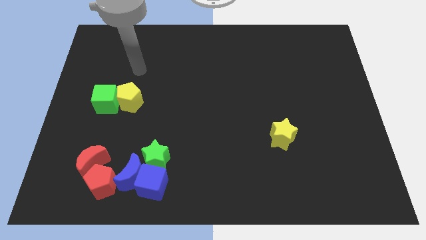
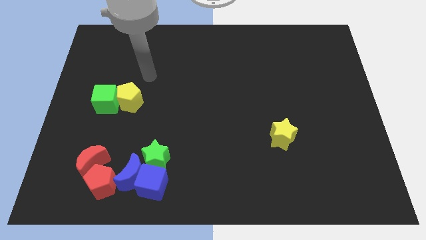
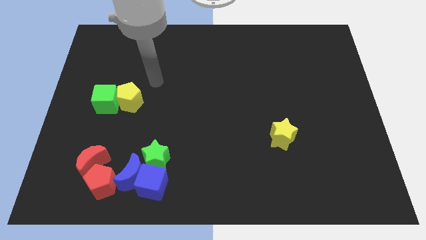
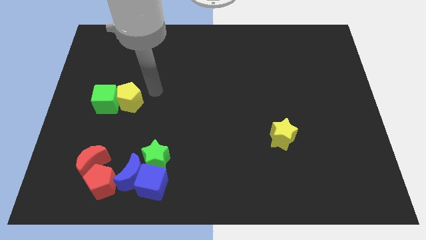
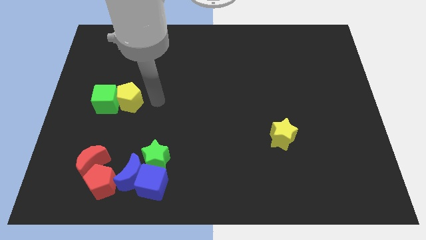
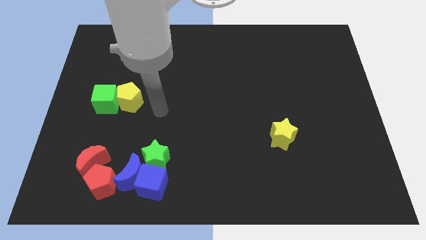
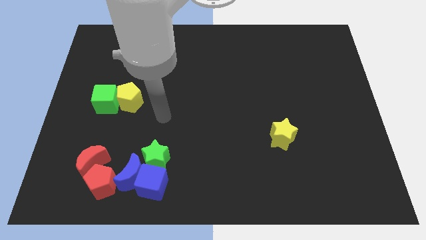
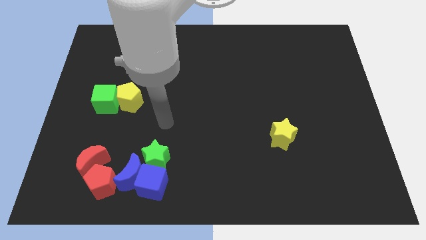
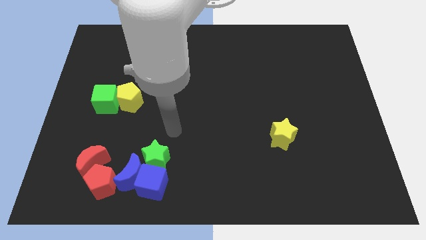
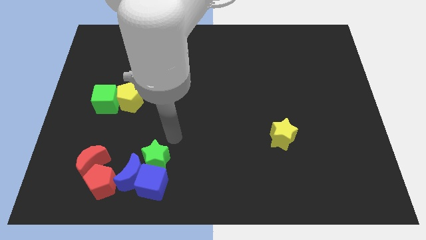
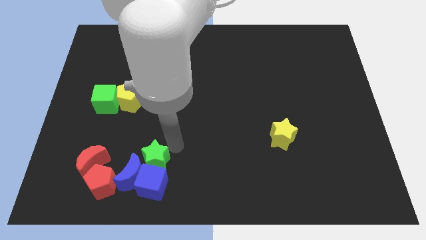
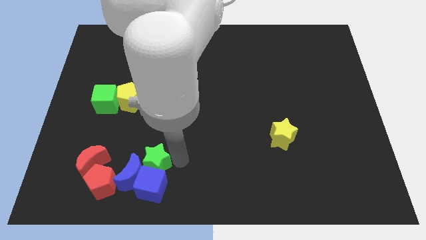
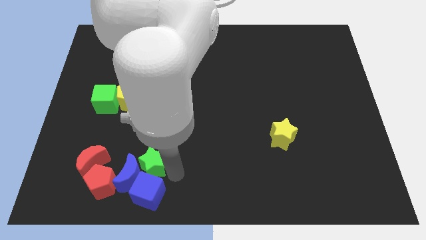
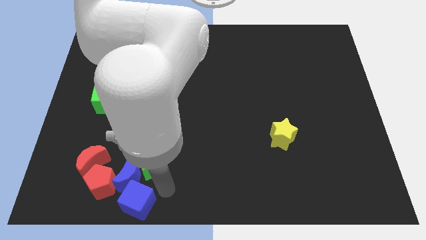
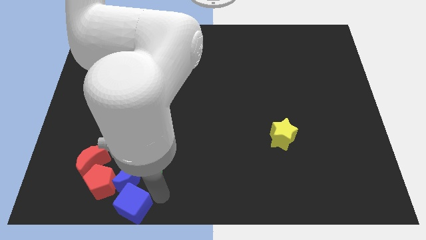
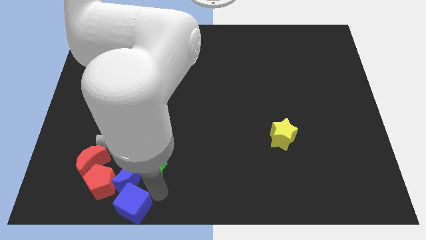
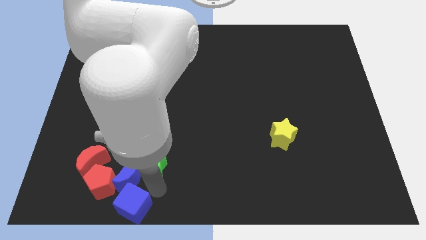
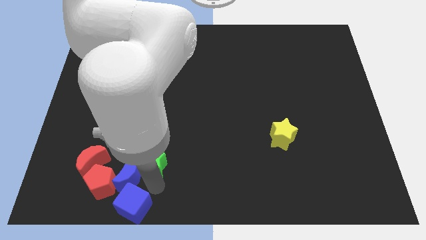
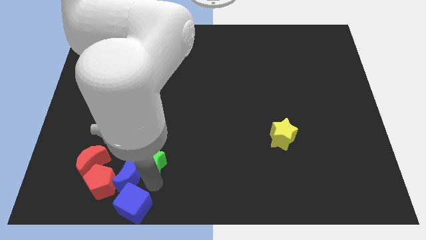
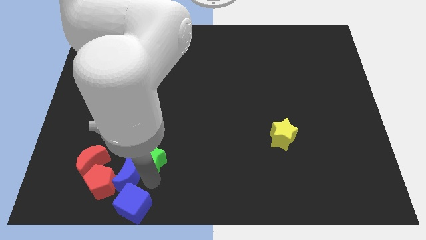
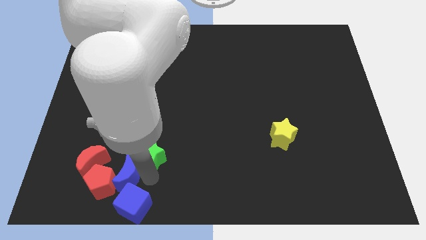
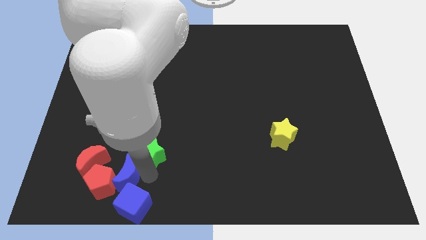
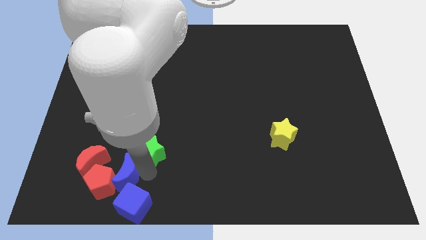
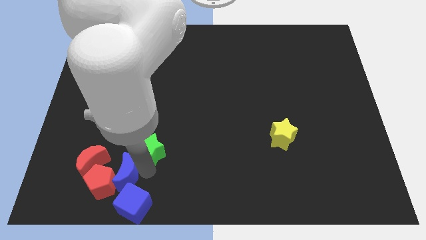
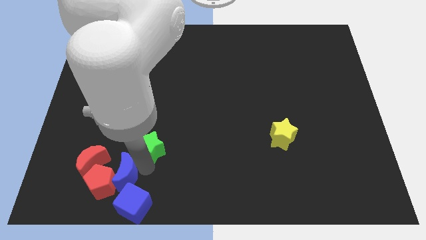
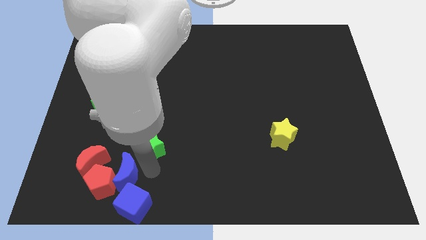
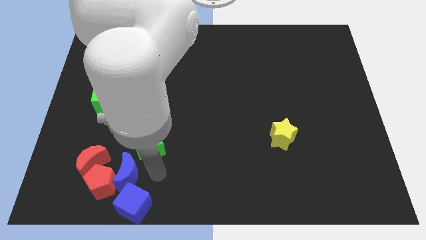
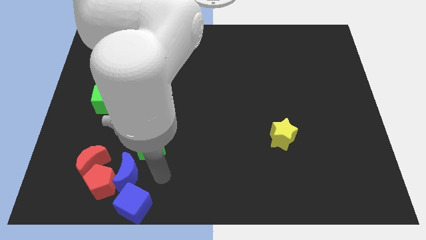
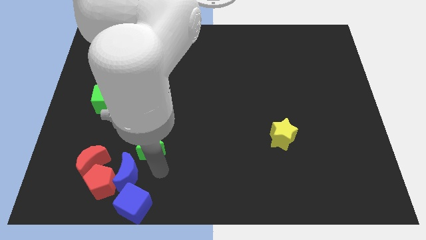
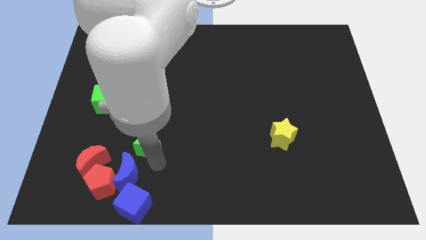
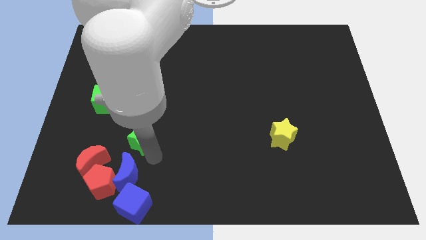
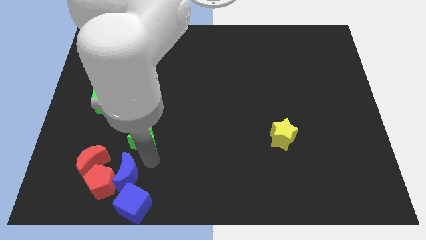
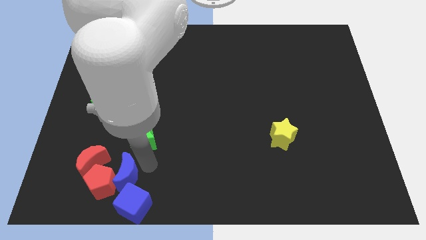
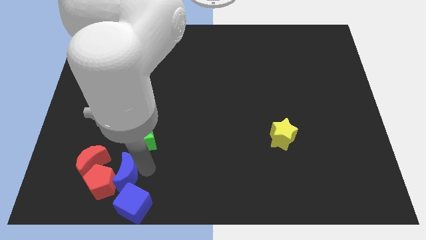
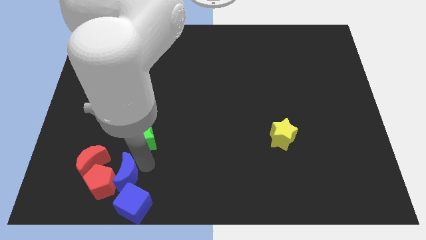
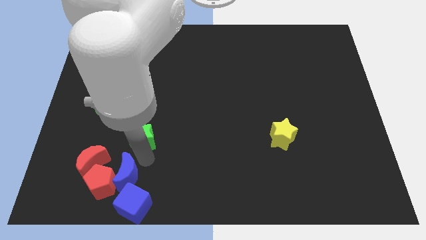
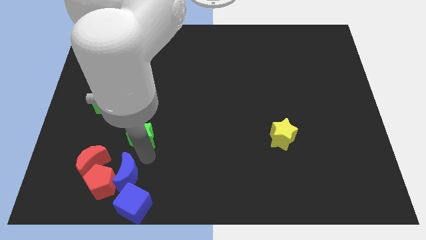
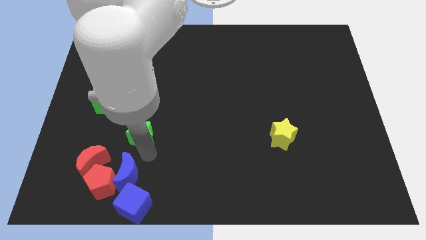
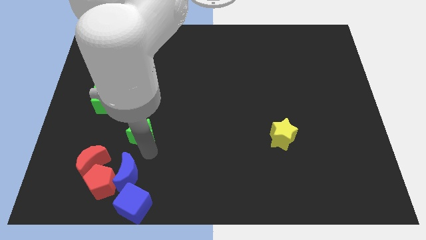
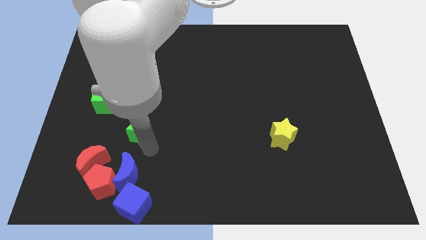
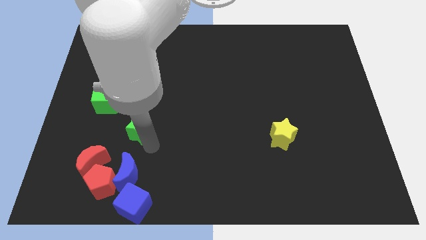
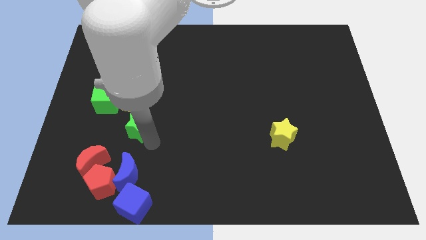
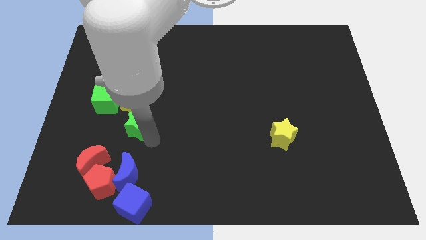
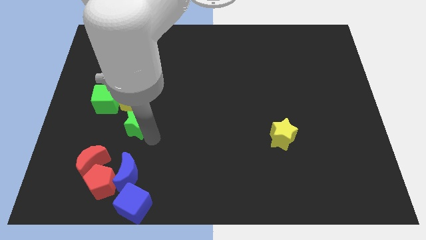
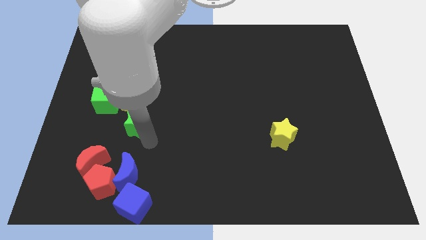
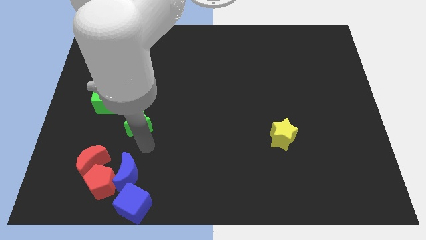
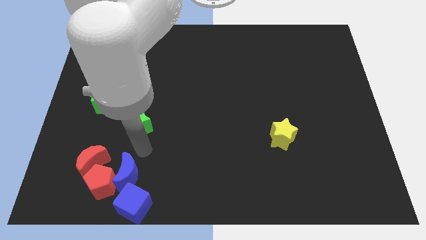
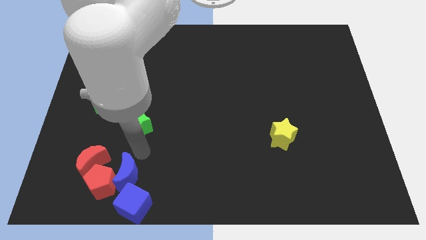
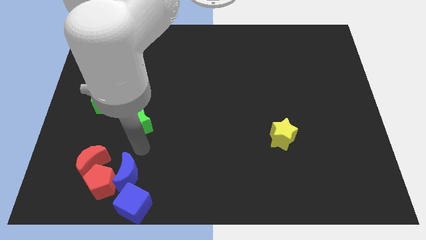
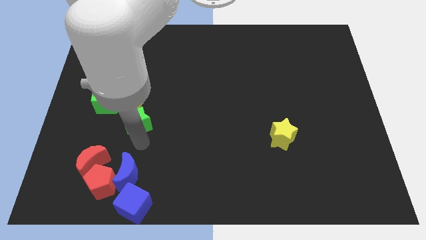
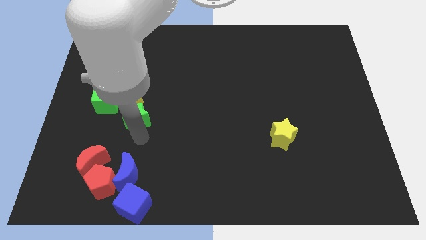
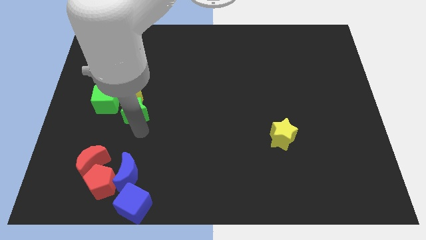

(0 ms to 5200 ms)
put the green star to the yellow pentagon

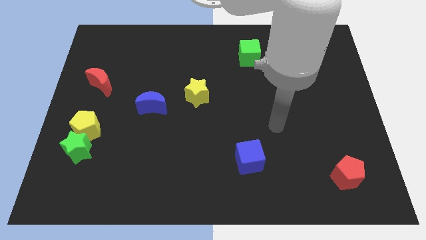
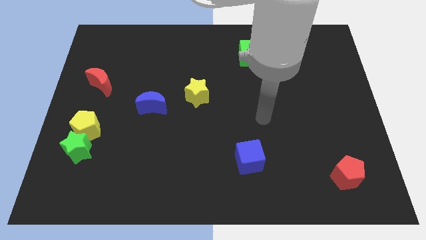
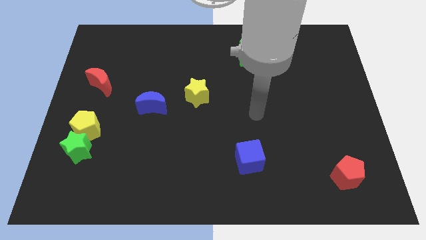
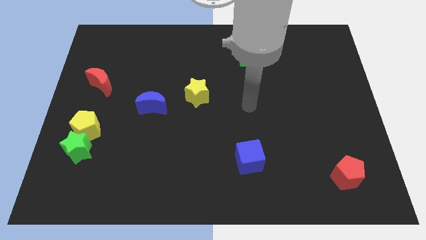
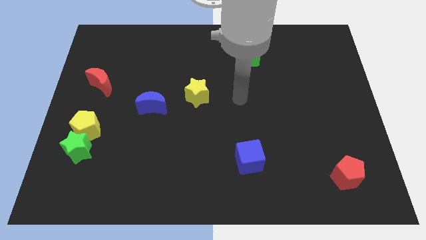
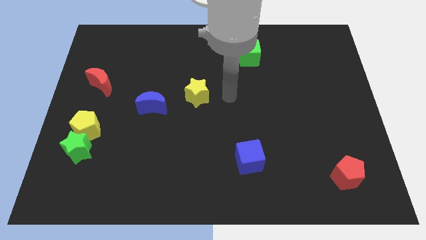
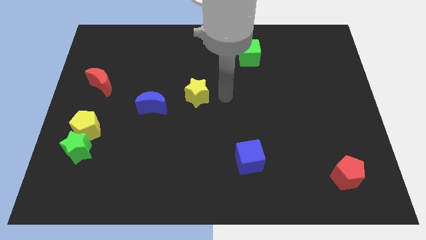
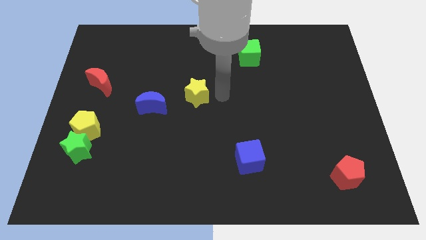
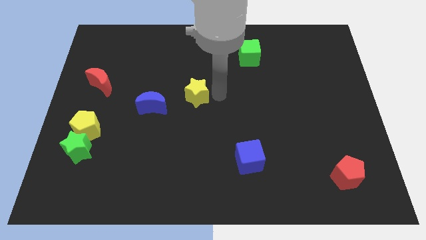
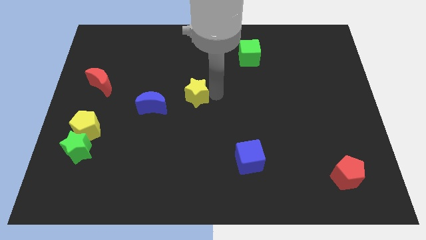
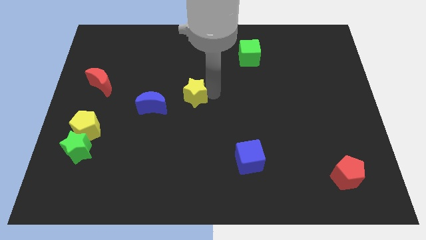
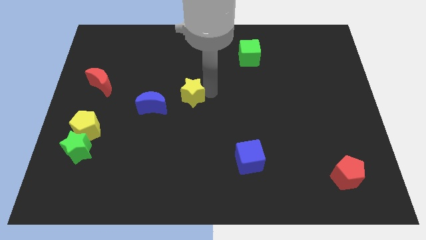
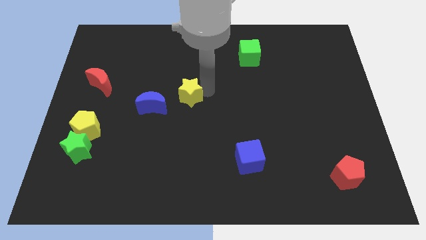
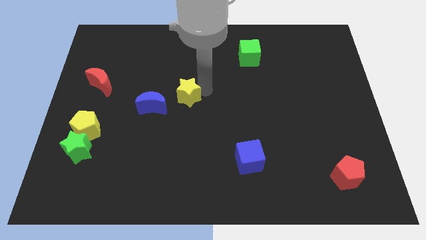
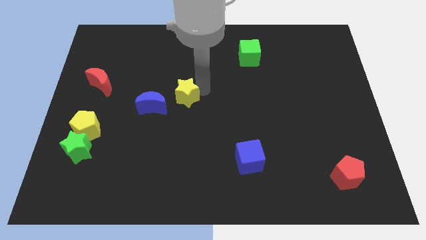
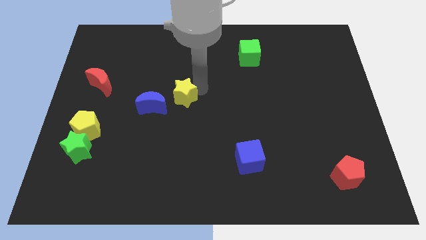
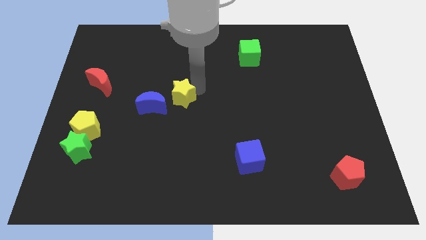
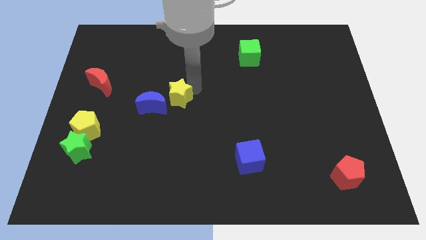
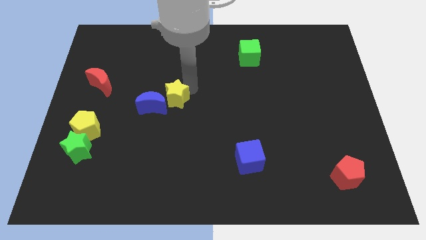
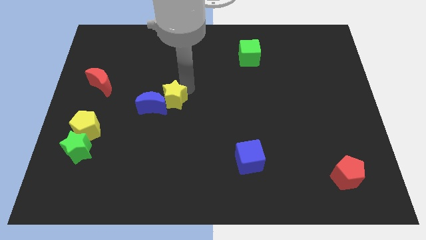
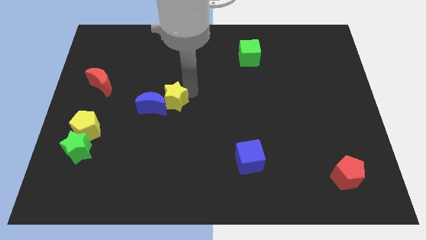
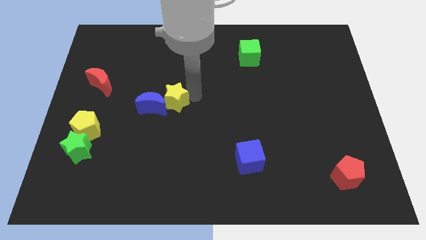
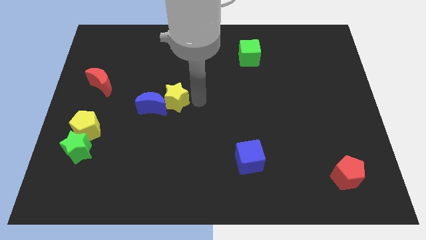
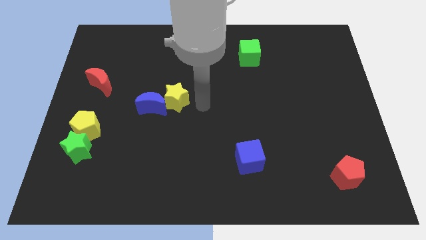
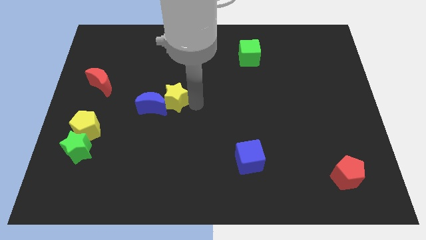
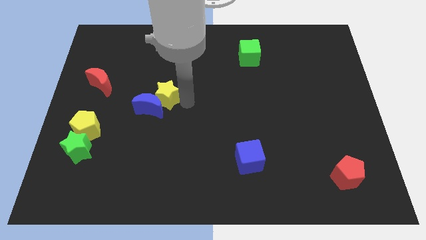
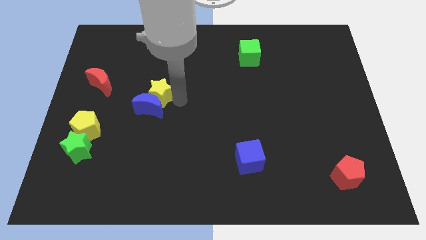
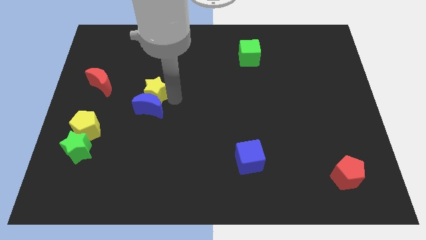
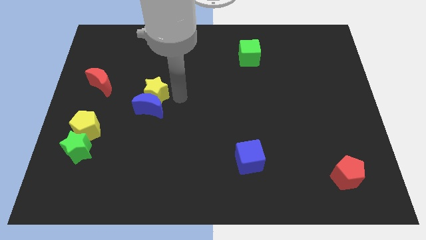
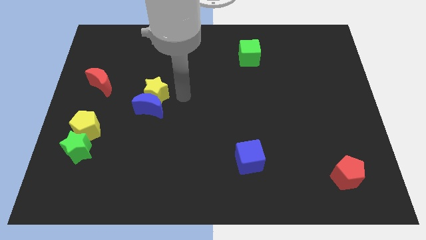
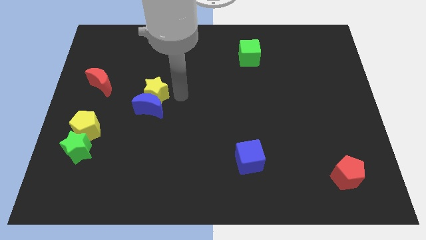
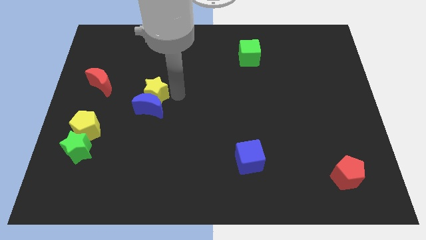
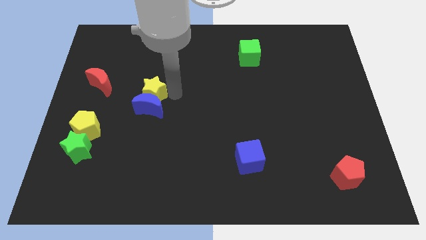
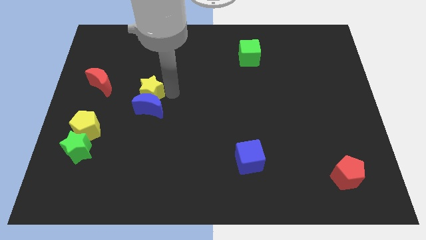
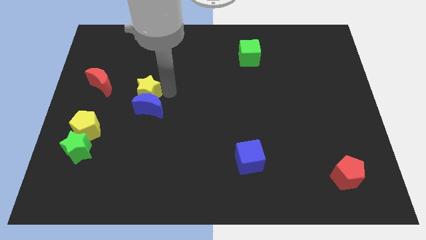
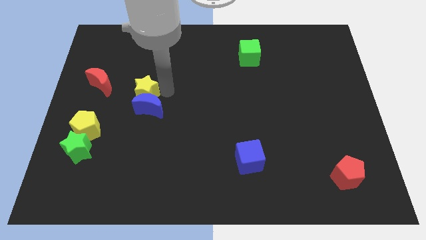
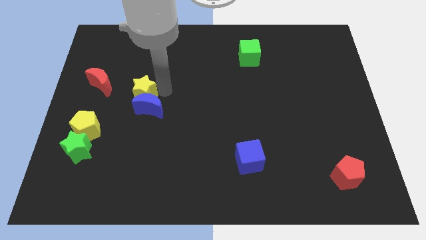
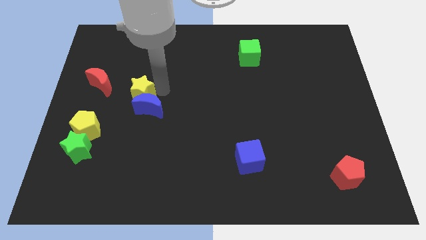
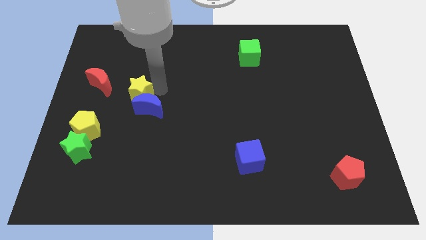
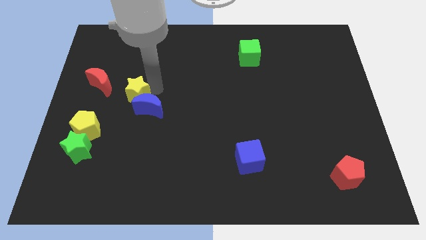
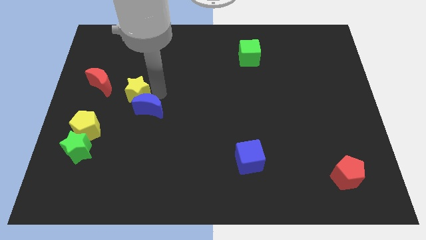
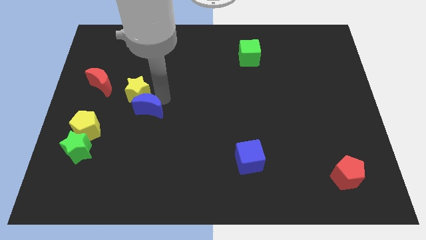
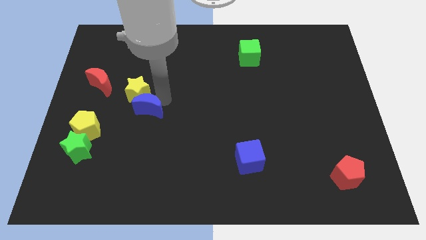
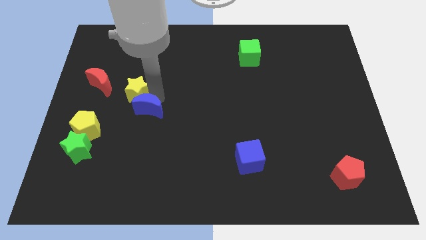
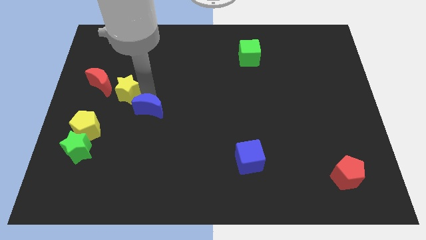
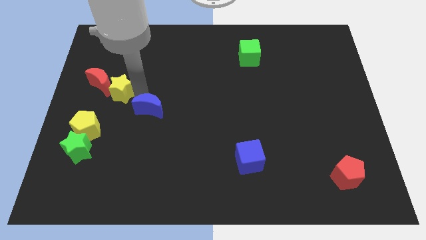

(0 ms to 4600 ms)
slide the yellow star towards the red moon
